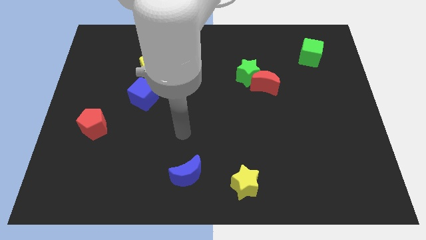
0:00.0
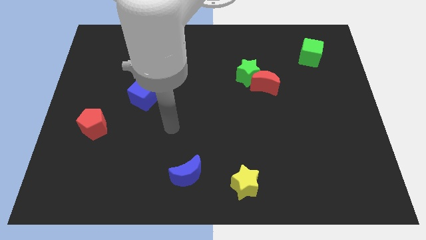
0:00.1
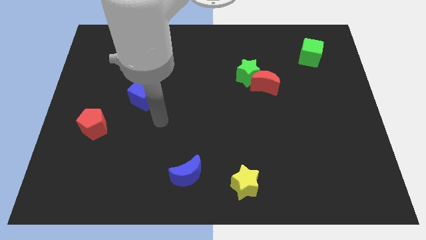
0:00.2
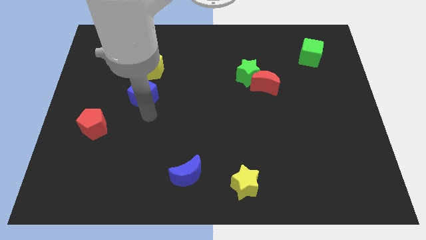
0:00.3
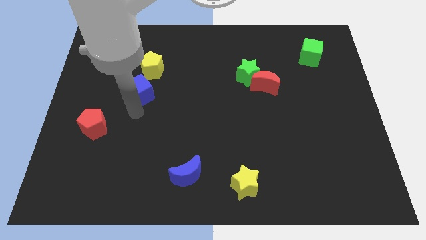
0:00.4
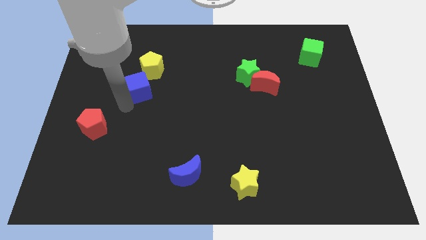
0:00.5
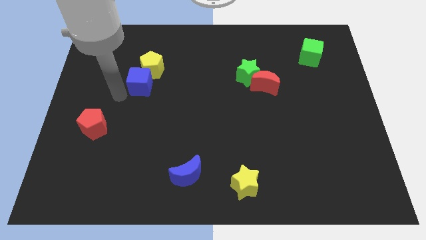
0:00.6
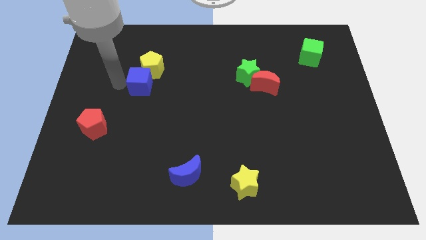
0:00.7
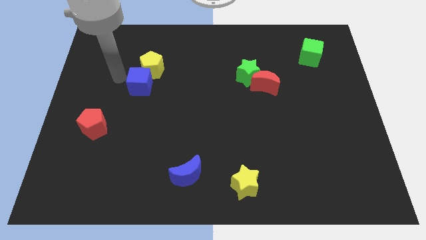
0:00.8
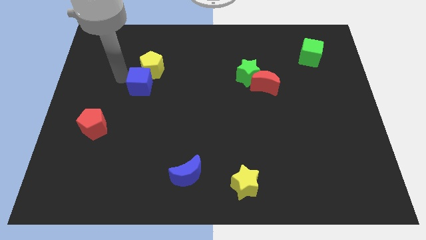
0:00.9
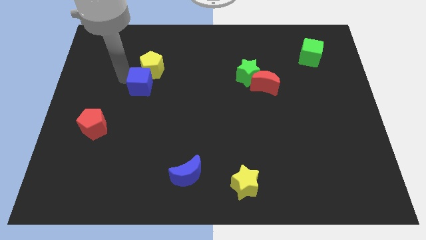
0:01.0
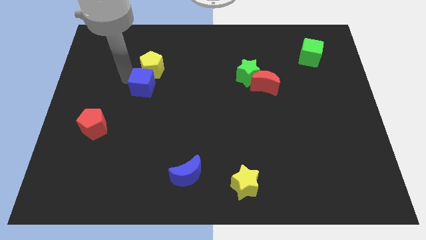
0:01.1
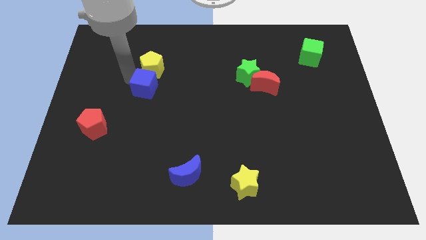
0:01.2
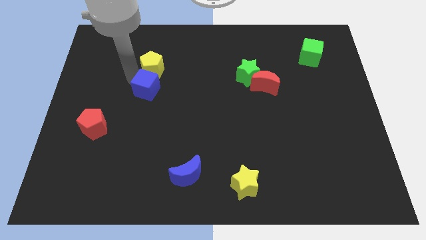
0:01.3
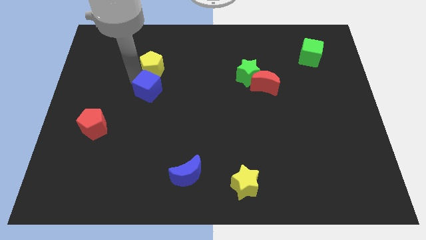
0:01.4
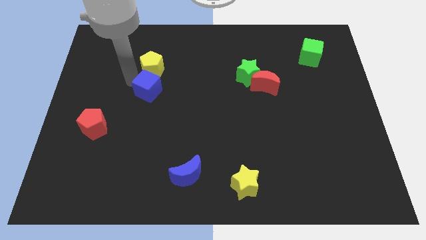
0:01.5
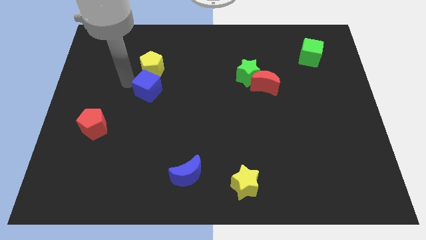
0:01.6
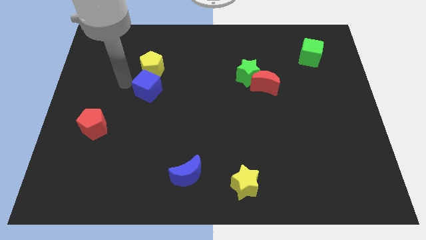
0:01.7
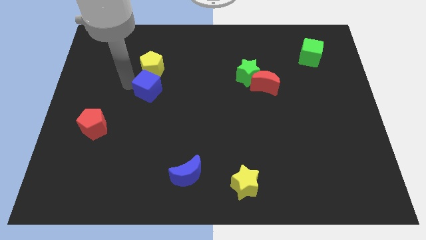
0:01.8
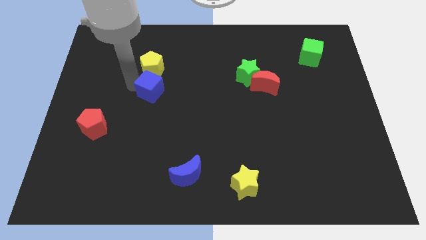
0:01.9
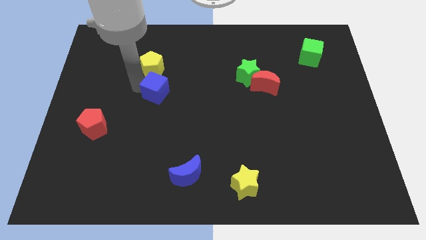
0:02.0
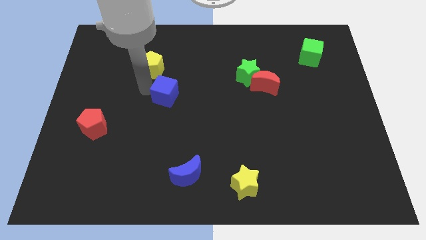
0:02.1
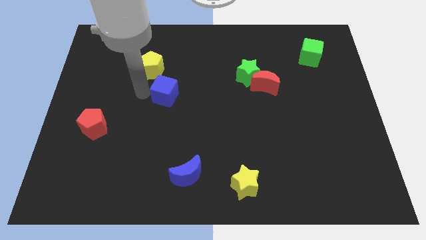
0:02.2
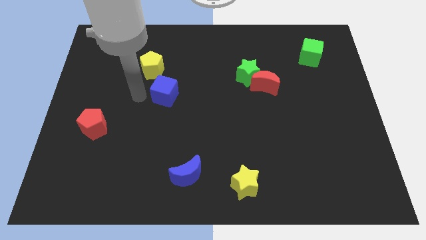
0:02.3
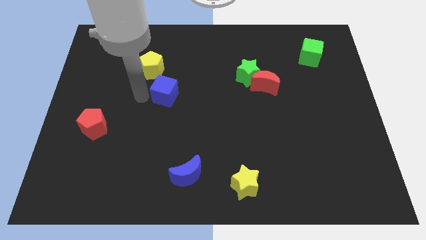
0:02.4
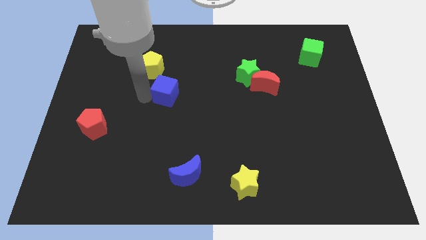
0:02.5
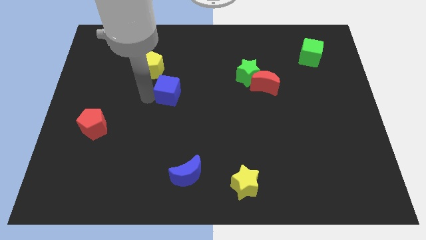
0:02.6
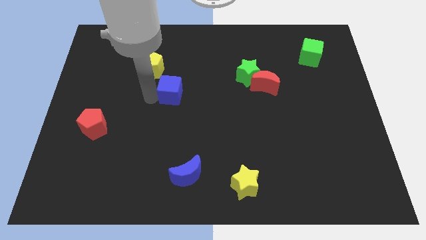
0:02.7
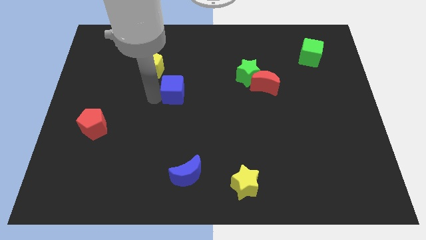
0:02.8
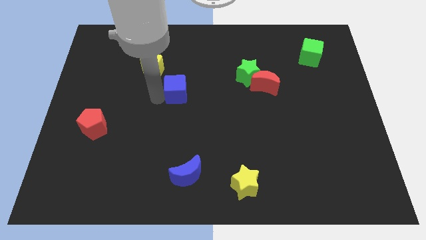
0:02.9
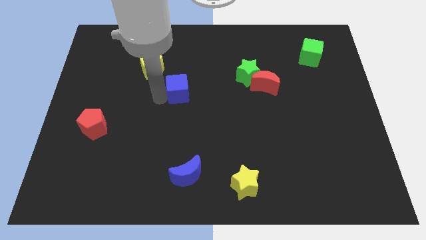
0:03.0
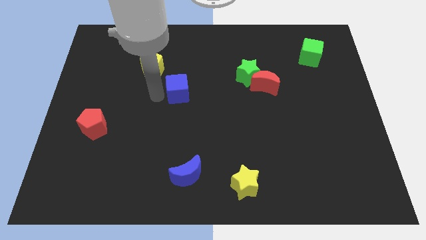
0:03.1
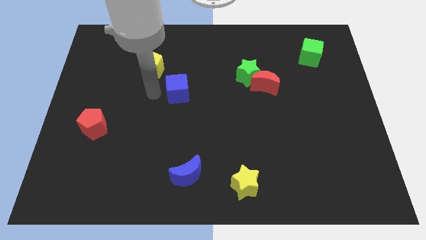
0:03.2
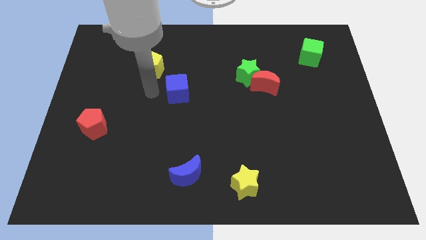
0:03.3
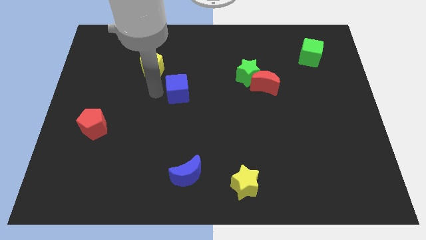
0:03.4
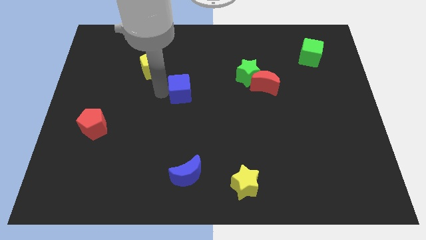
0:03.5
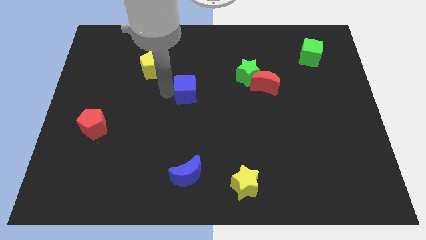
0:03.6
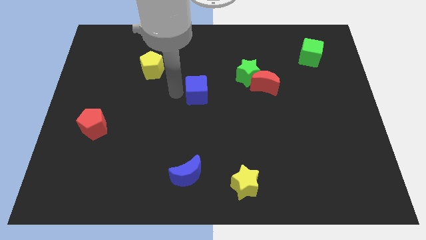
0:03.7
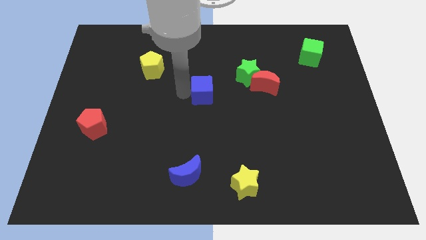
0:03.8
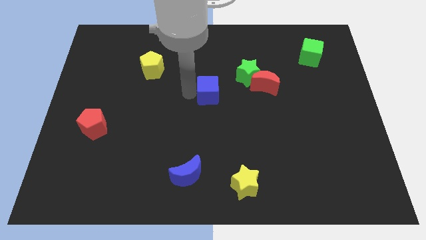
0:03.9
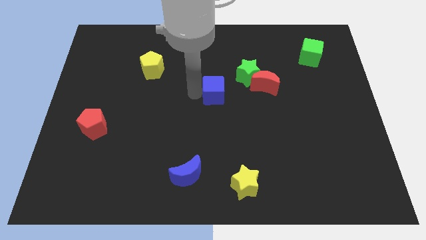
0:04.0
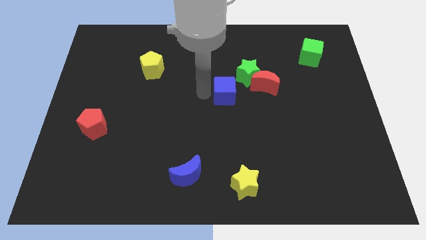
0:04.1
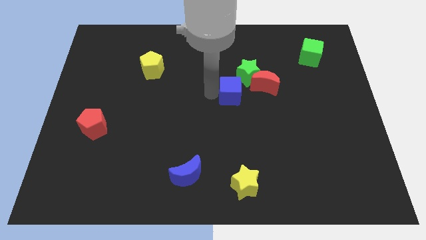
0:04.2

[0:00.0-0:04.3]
move the blue cube right

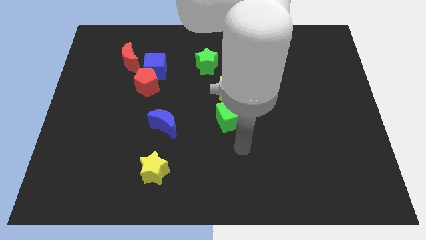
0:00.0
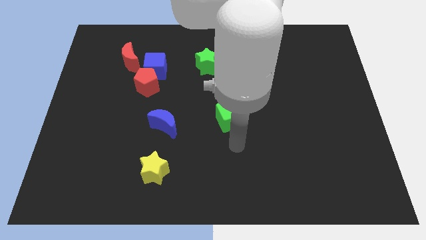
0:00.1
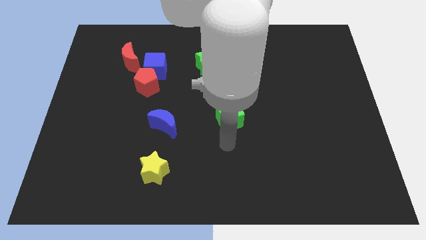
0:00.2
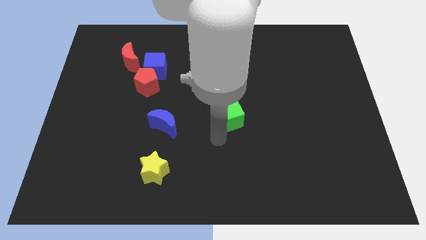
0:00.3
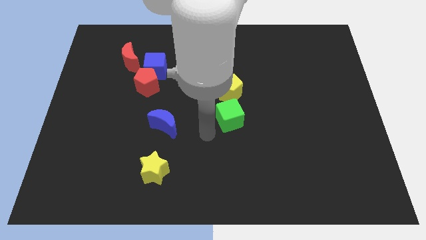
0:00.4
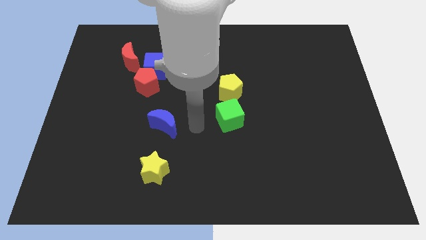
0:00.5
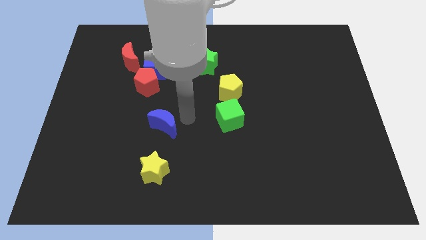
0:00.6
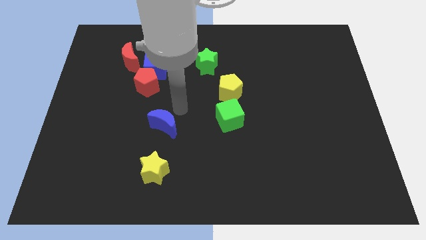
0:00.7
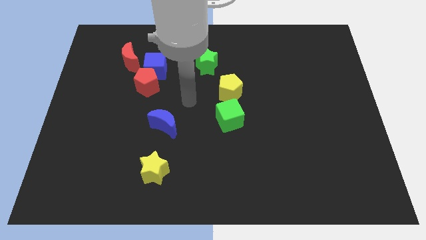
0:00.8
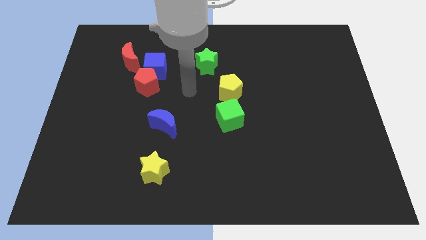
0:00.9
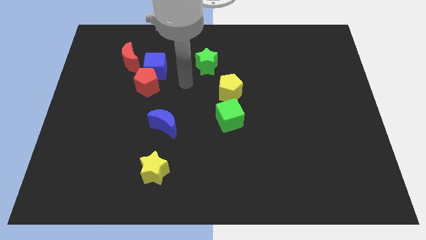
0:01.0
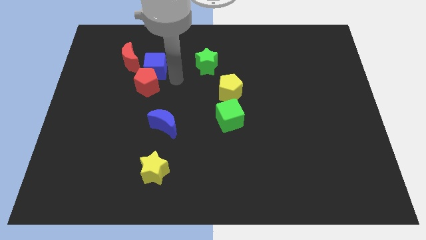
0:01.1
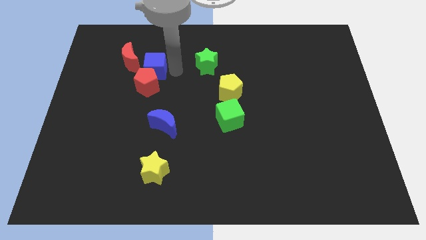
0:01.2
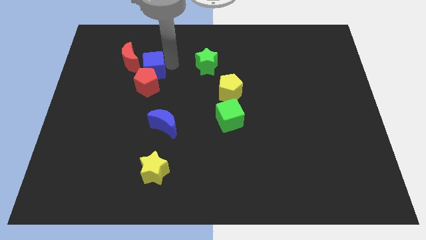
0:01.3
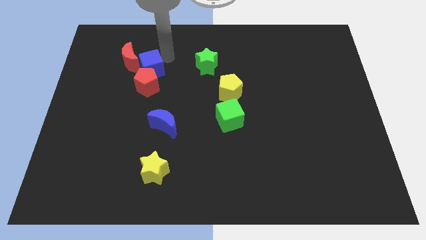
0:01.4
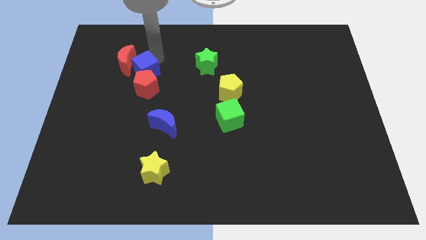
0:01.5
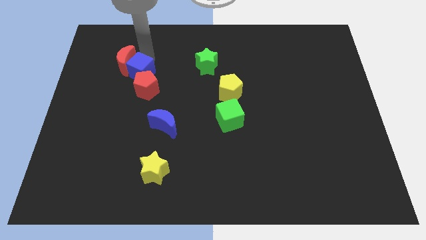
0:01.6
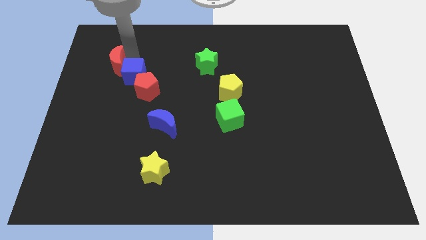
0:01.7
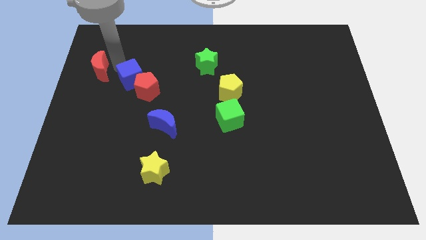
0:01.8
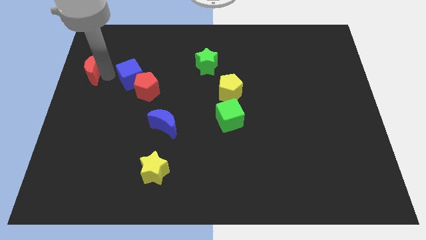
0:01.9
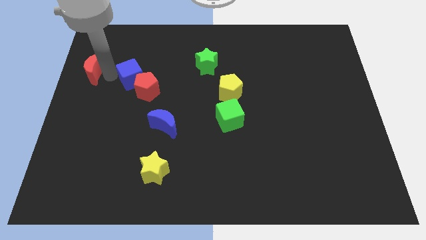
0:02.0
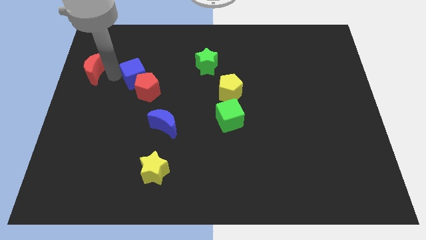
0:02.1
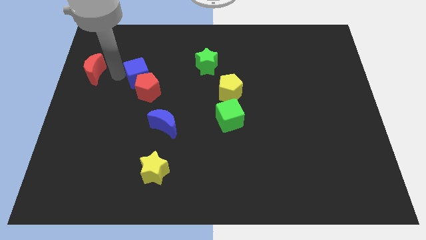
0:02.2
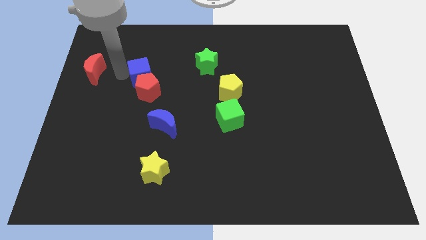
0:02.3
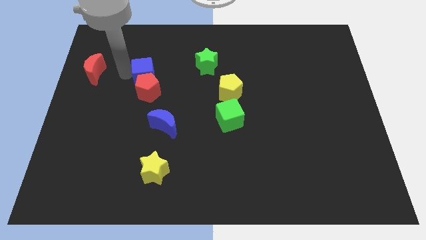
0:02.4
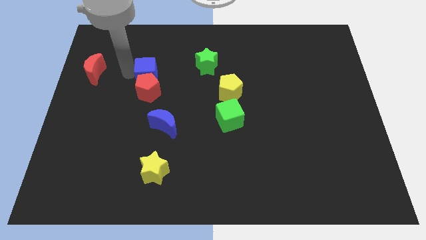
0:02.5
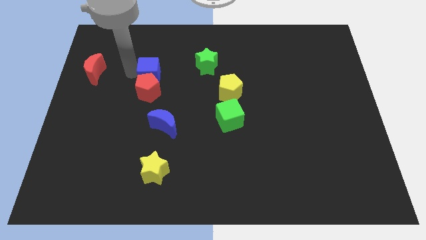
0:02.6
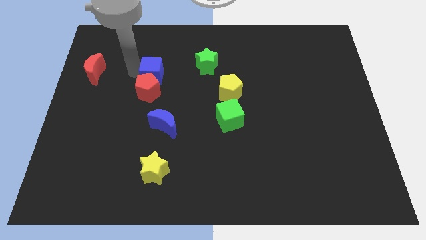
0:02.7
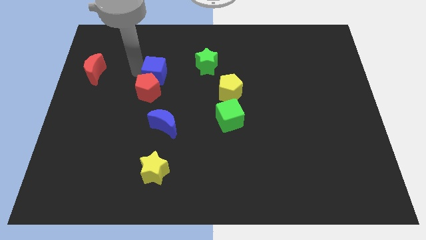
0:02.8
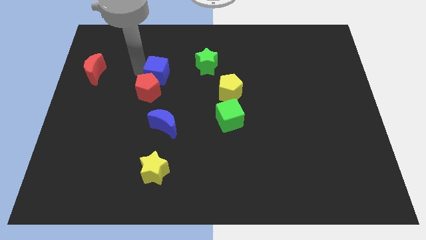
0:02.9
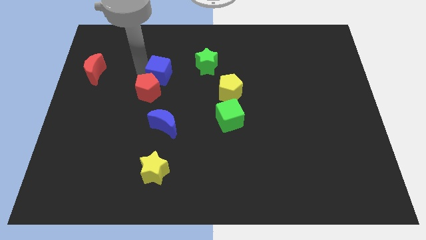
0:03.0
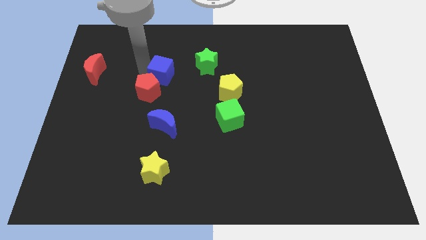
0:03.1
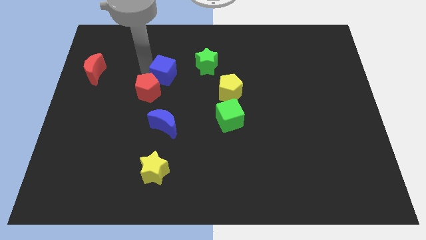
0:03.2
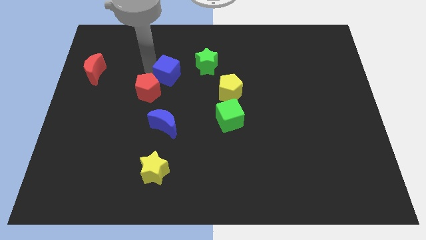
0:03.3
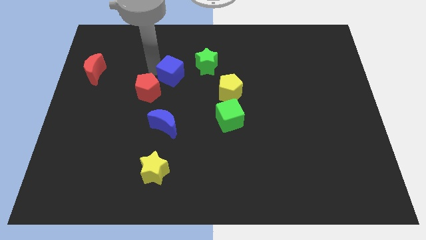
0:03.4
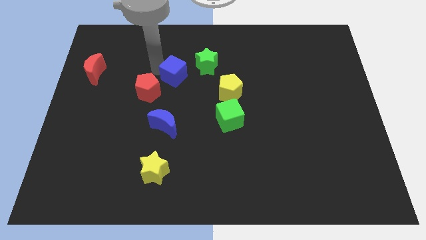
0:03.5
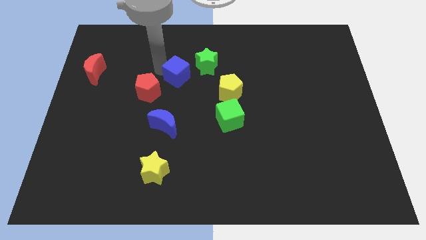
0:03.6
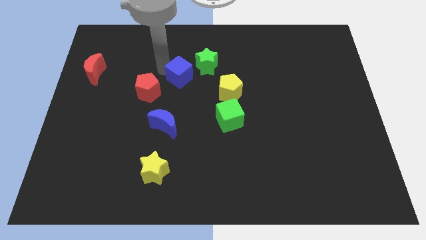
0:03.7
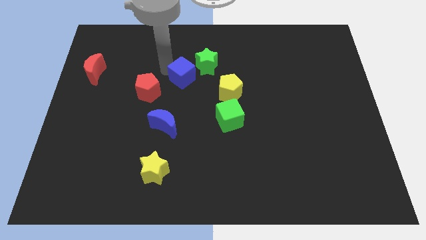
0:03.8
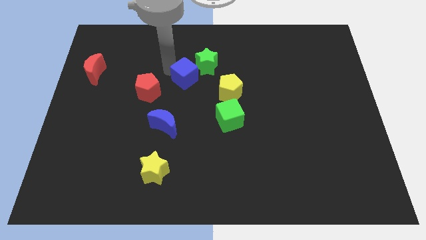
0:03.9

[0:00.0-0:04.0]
slightly slide the blue cube downwards and then to the right

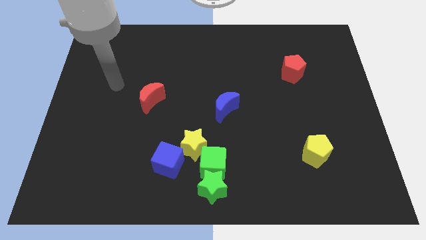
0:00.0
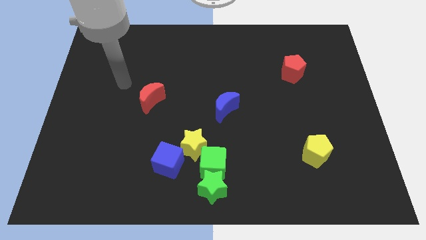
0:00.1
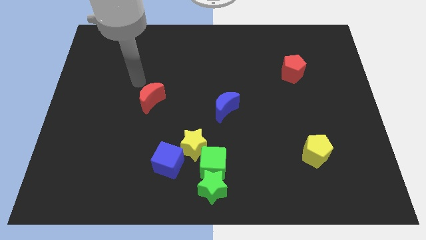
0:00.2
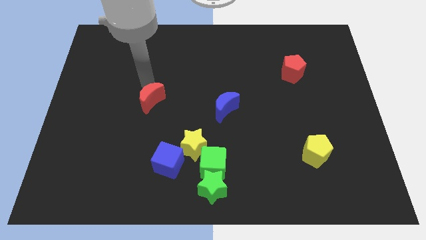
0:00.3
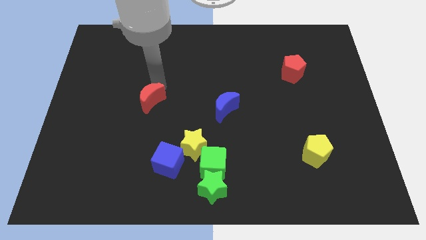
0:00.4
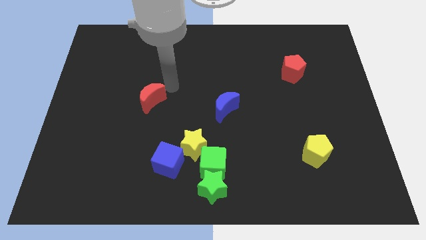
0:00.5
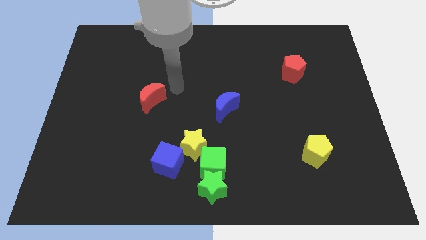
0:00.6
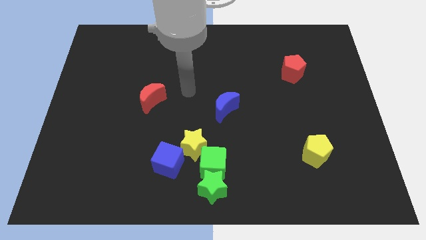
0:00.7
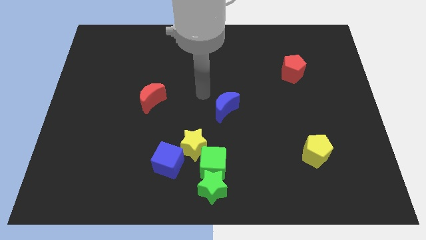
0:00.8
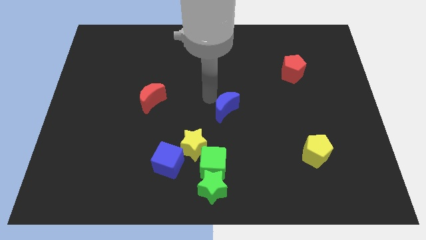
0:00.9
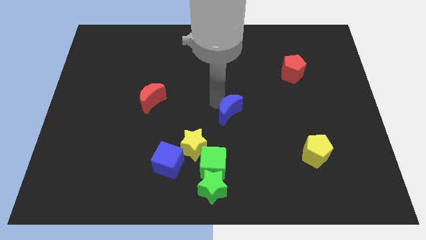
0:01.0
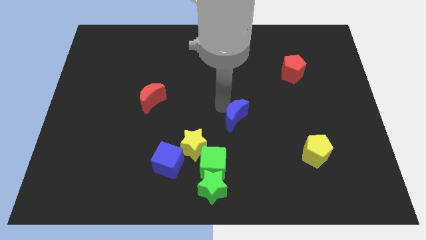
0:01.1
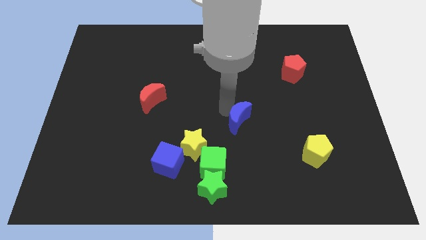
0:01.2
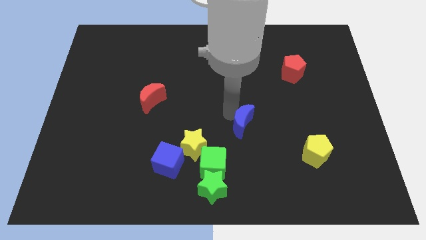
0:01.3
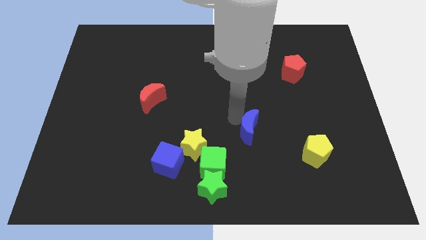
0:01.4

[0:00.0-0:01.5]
slide the blue moon a bit downwards and then to the right
